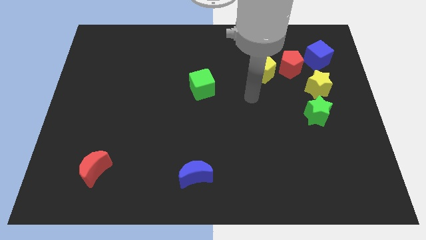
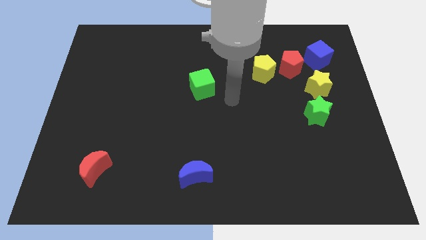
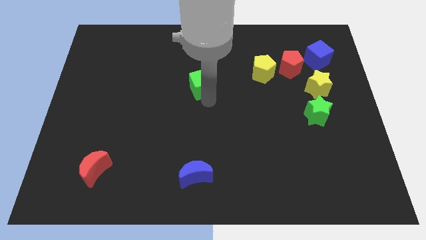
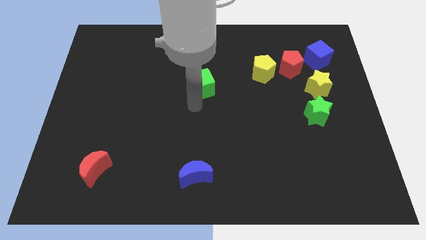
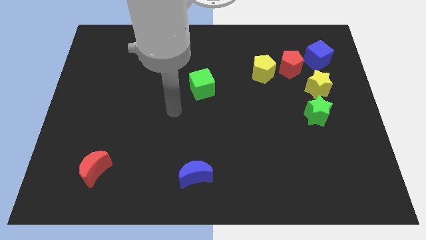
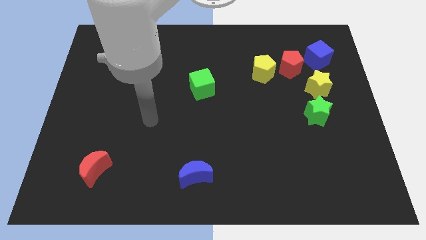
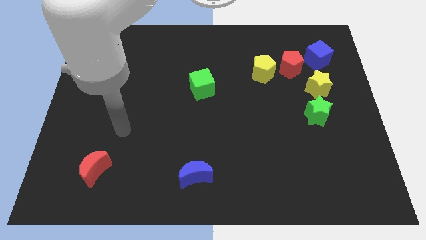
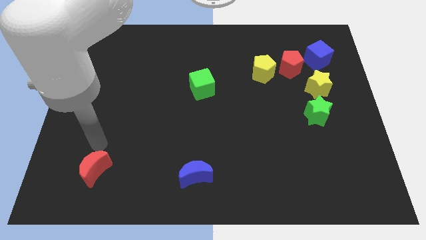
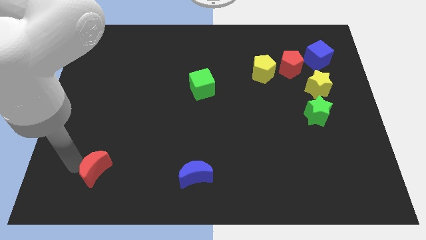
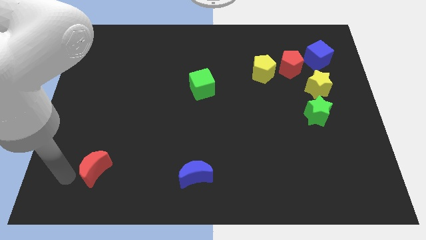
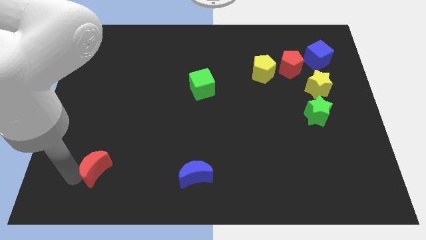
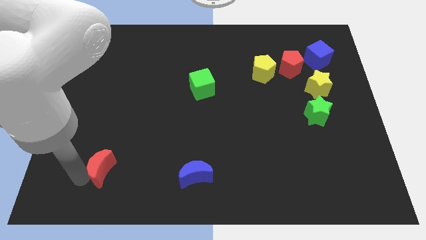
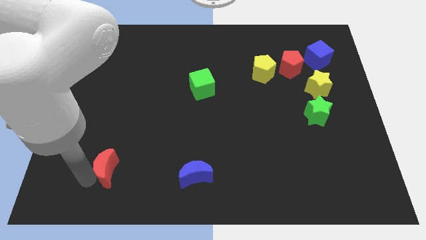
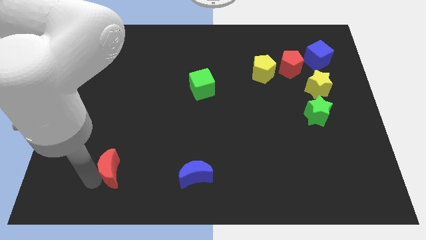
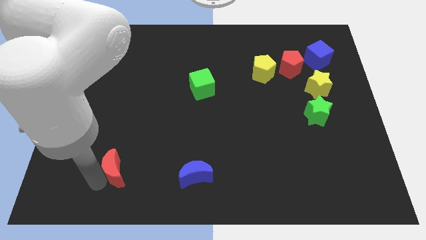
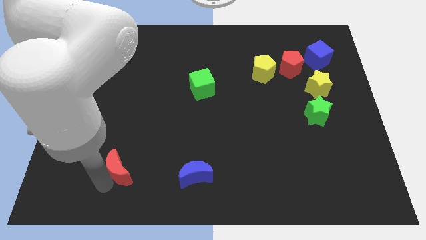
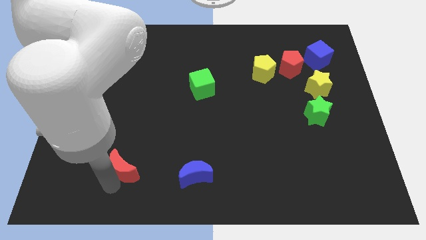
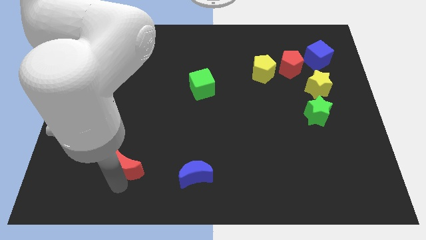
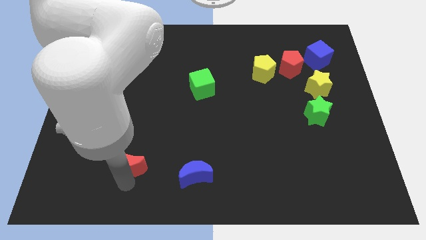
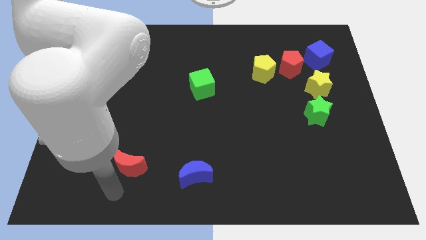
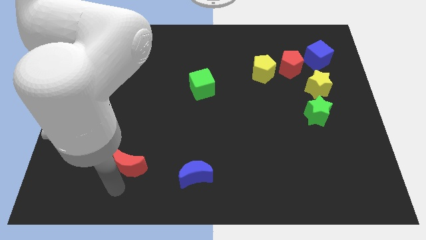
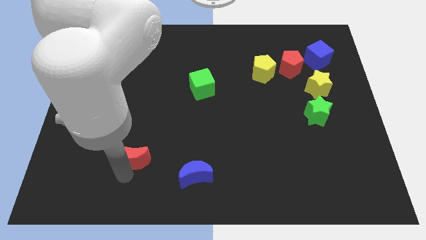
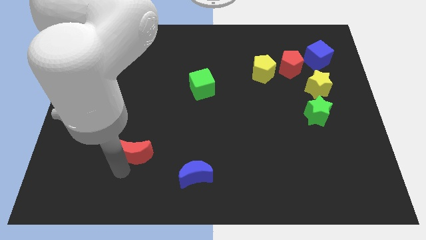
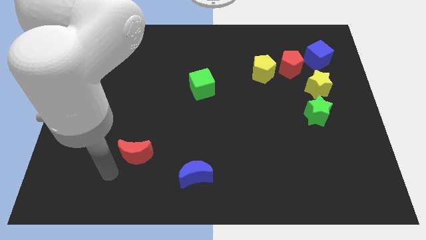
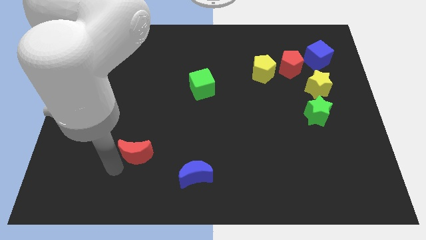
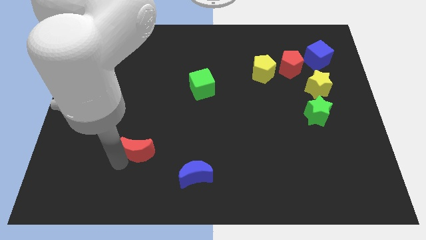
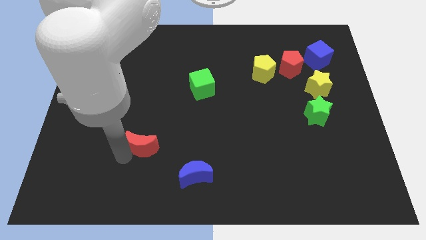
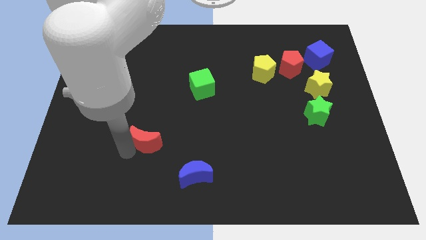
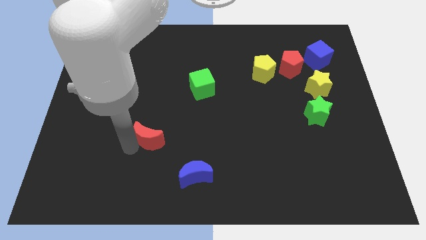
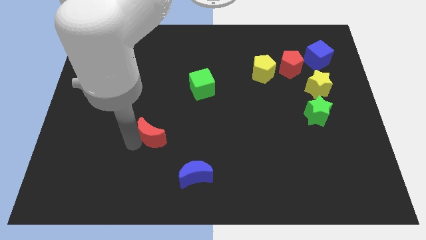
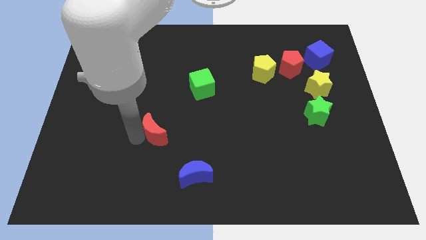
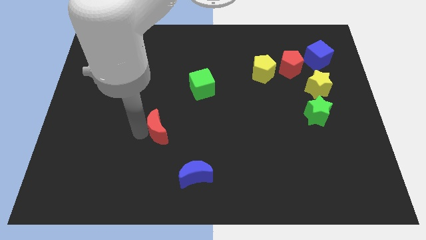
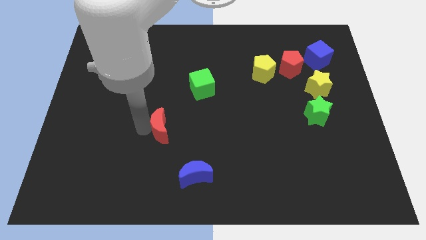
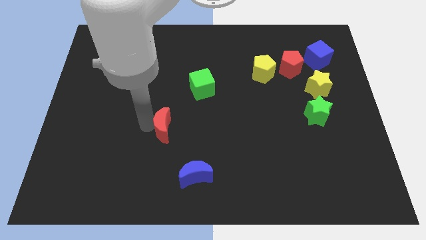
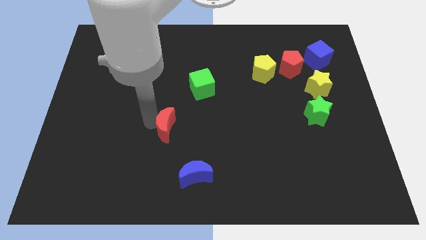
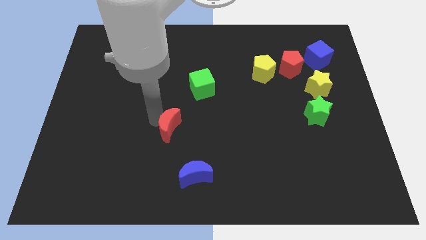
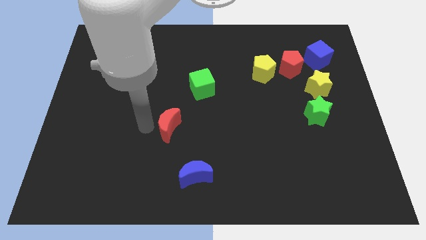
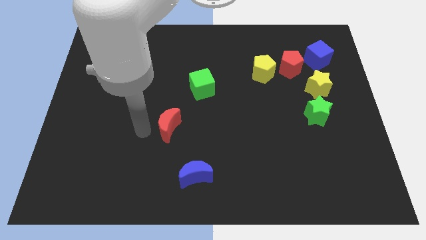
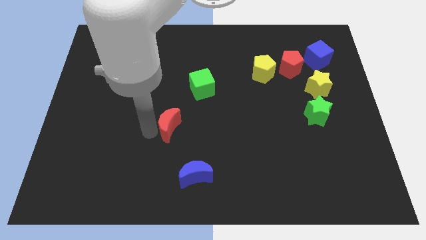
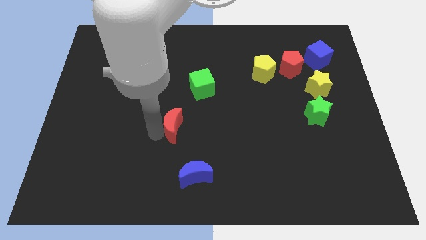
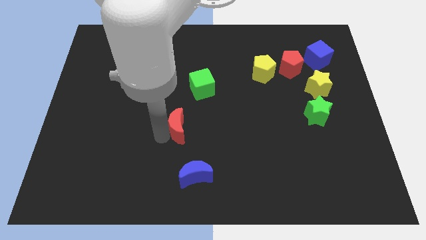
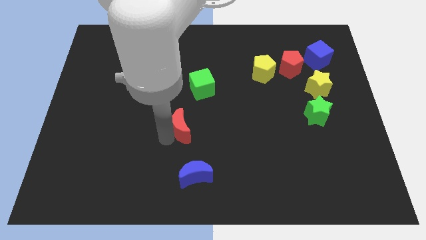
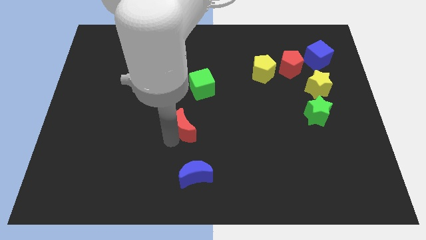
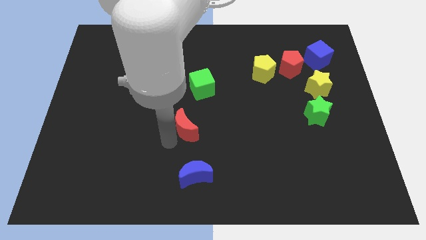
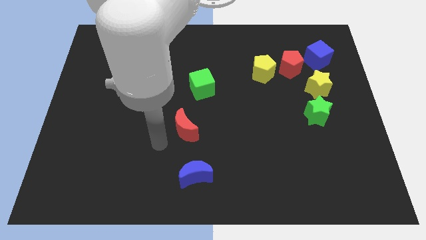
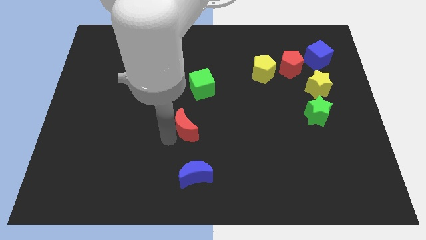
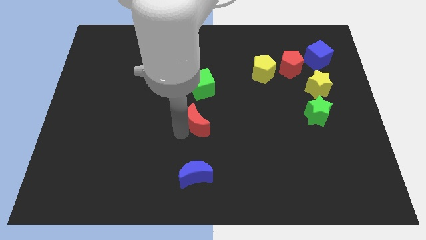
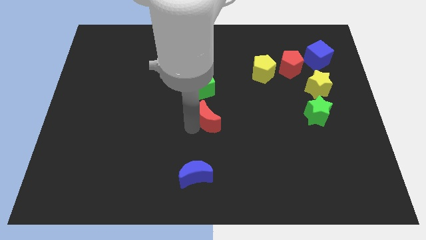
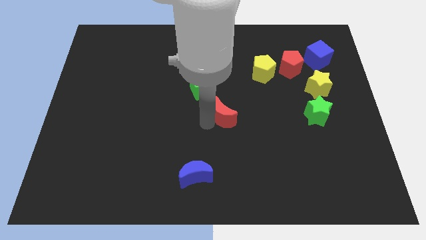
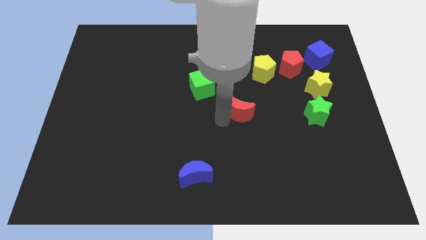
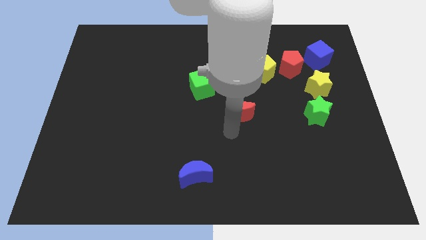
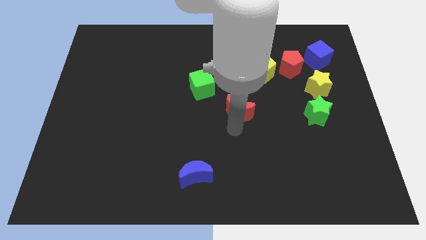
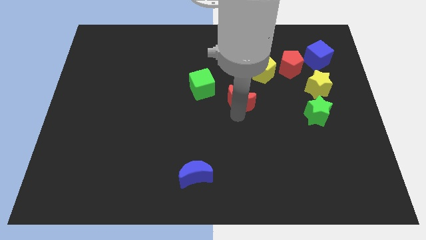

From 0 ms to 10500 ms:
move the red moon diagonally down and to the left of the yellow pentagon

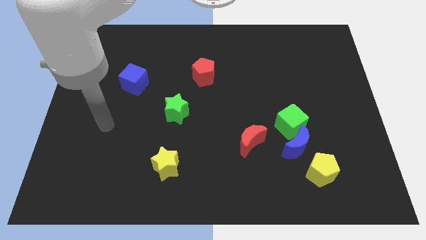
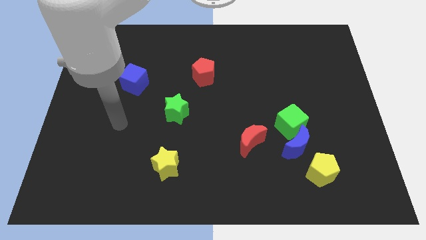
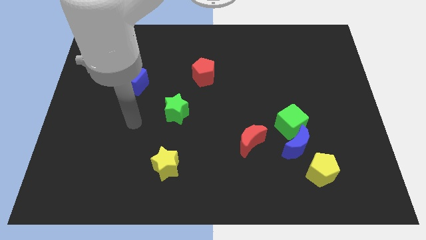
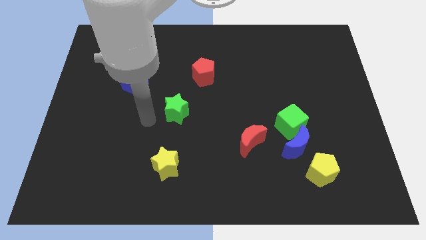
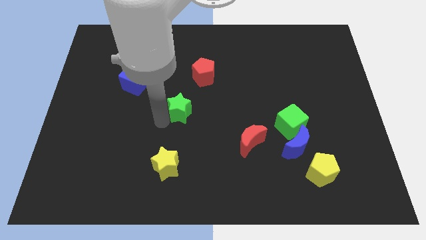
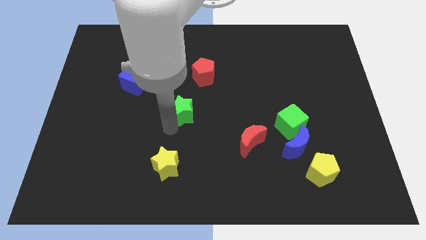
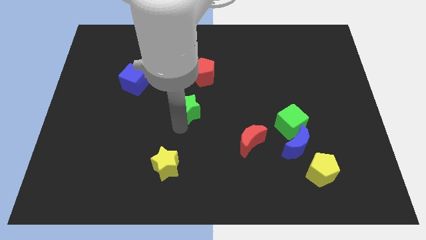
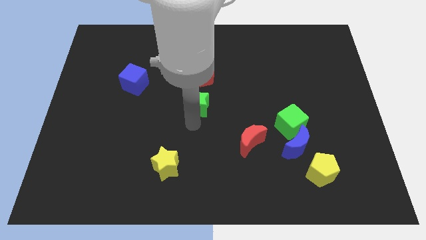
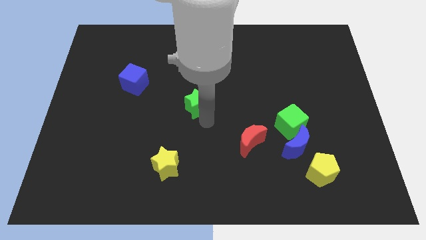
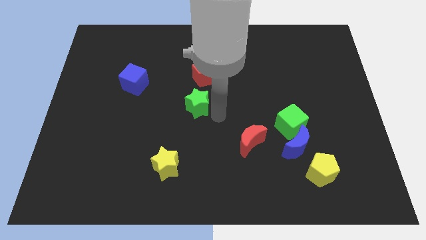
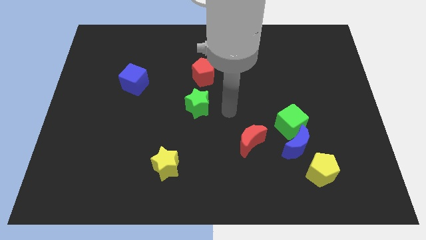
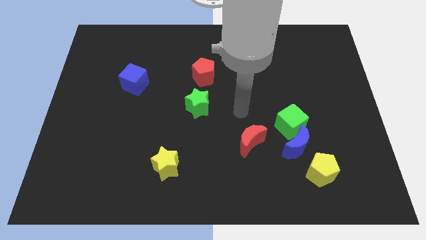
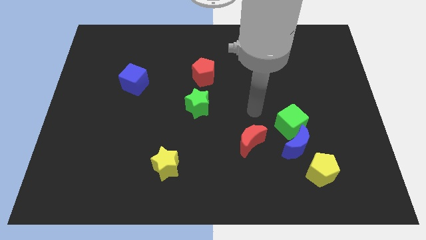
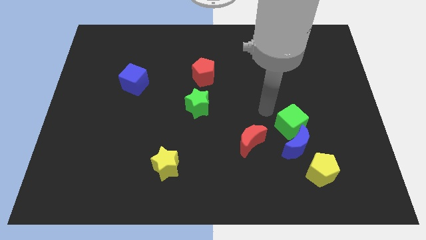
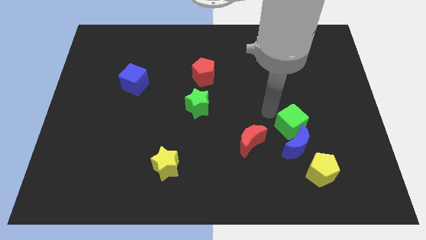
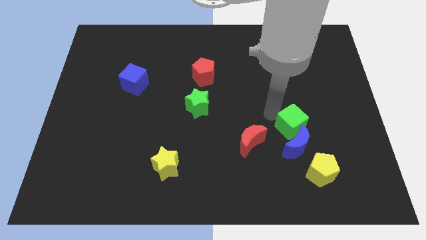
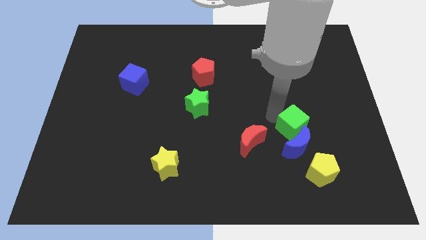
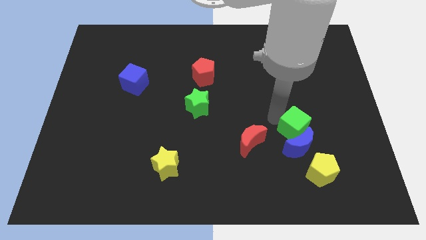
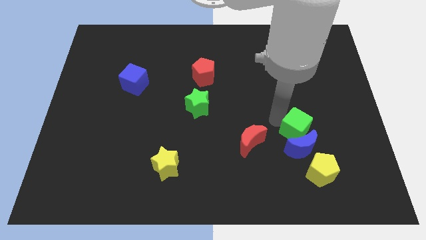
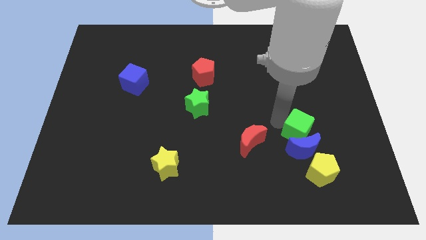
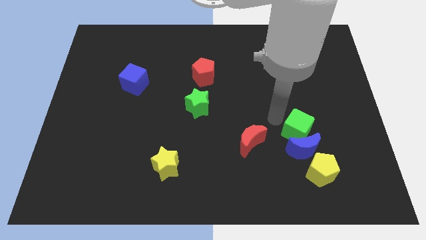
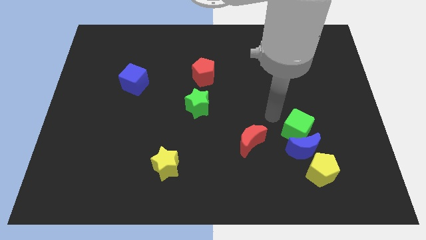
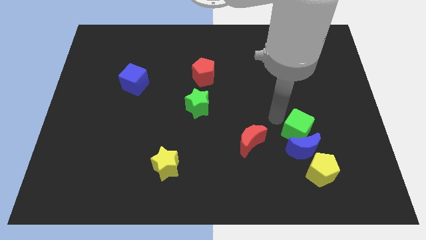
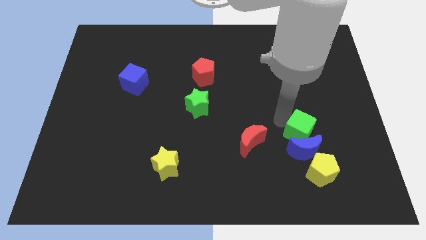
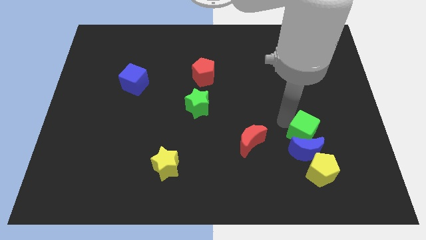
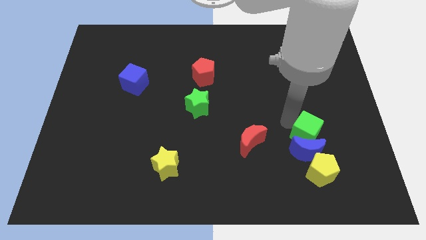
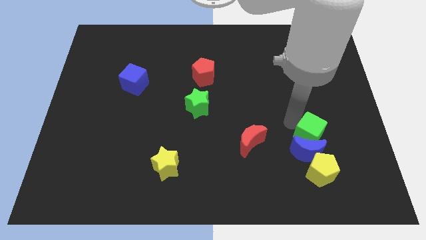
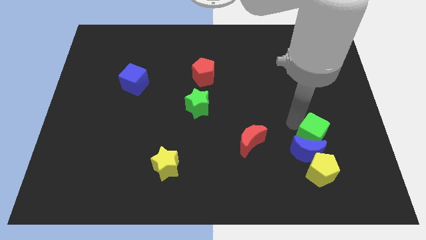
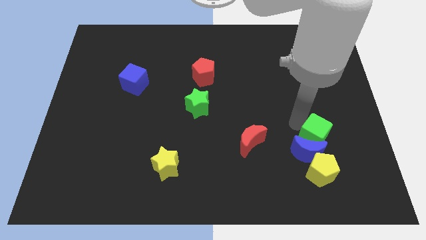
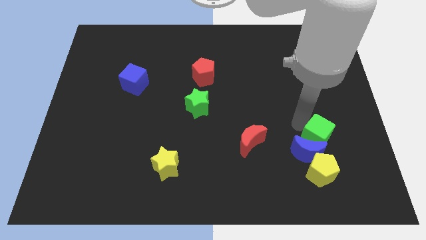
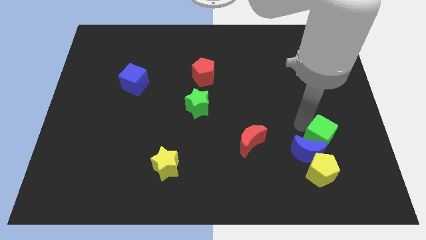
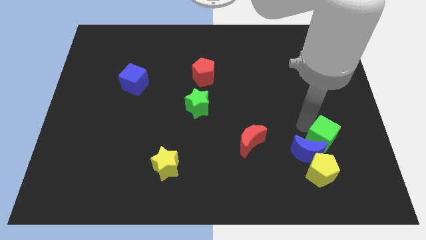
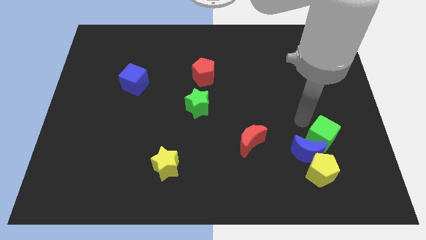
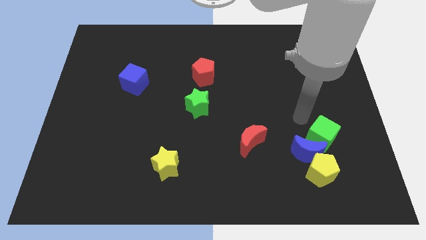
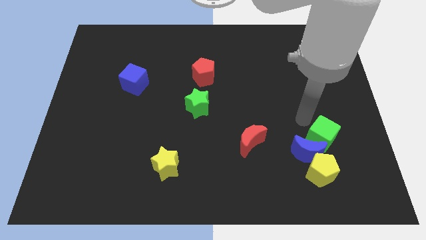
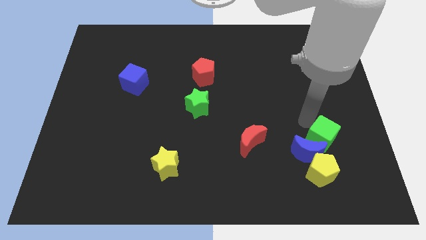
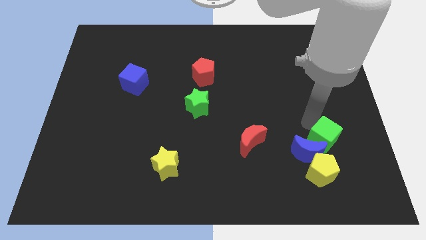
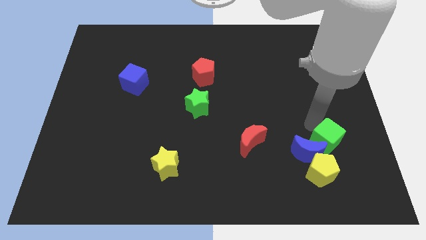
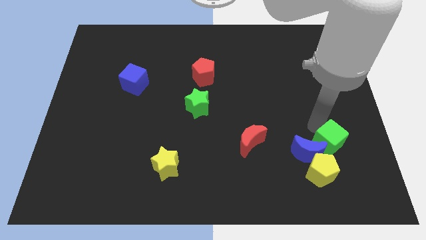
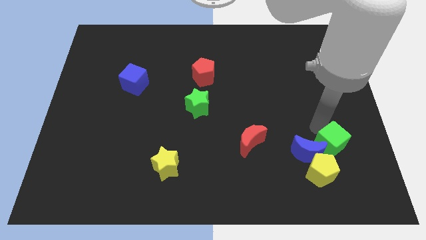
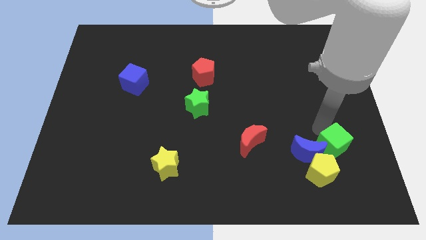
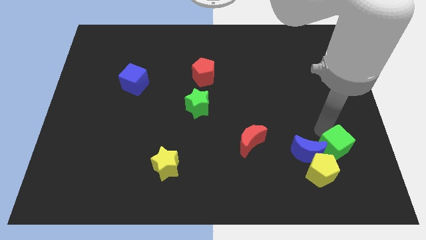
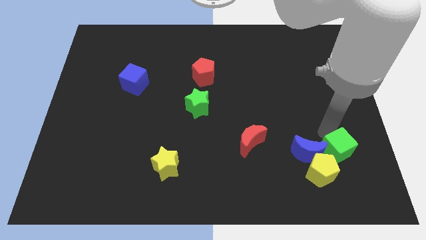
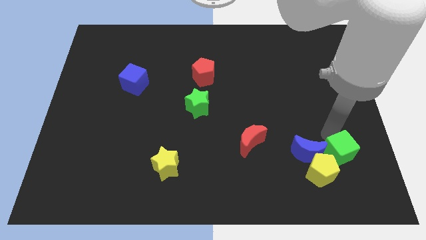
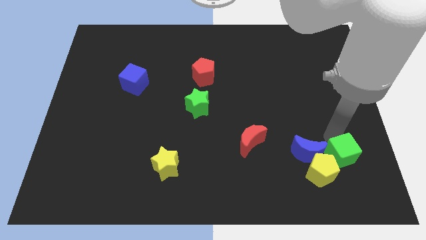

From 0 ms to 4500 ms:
move the green cube to the bottom right side of the blue moon
